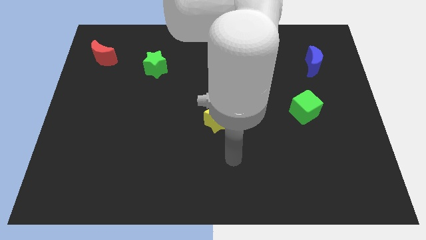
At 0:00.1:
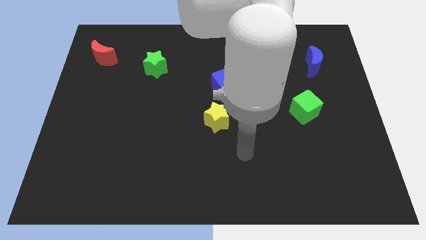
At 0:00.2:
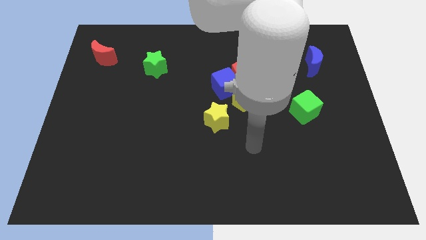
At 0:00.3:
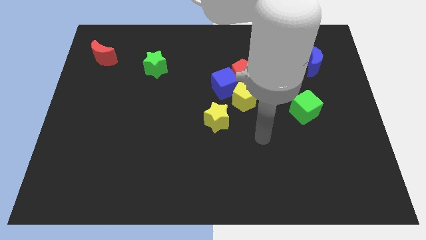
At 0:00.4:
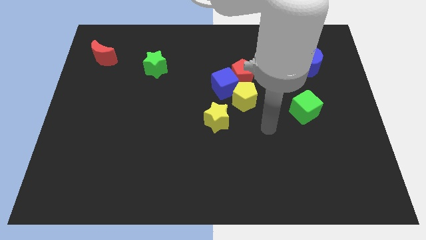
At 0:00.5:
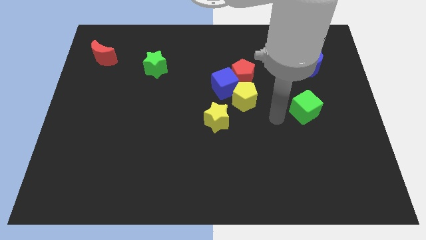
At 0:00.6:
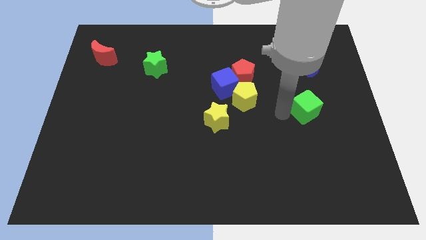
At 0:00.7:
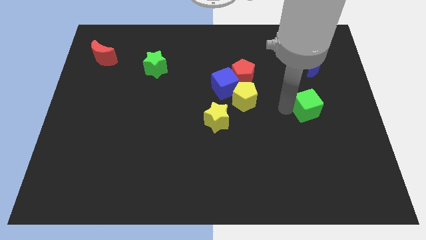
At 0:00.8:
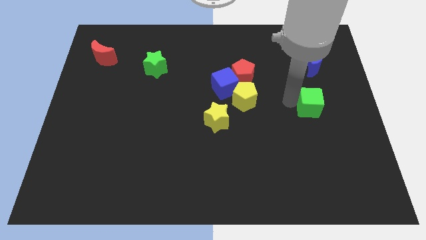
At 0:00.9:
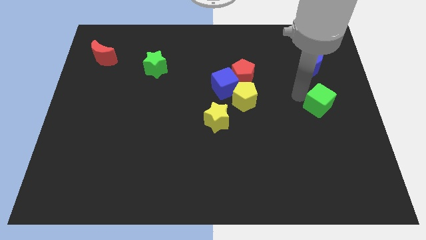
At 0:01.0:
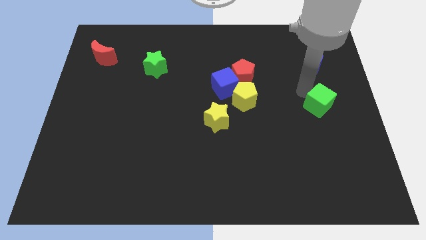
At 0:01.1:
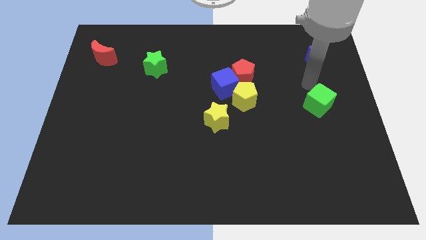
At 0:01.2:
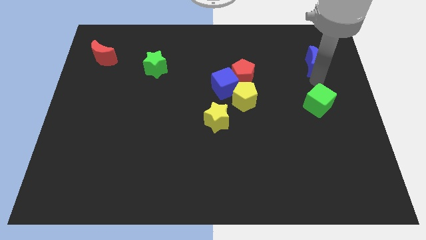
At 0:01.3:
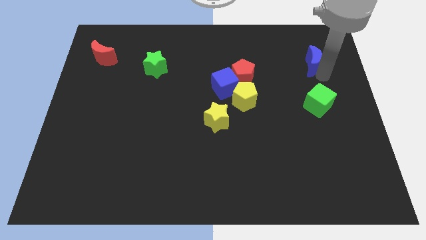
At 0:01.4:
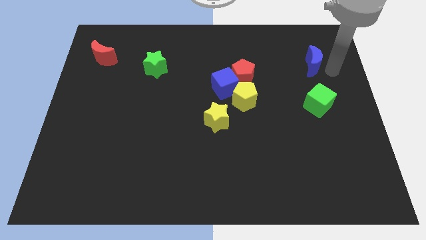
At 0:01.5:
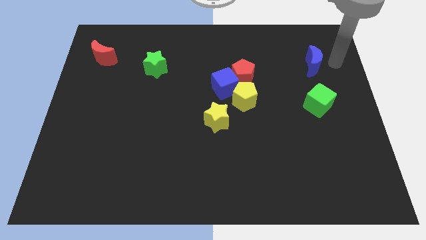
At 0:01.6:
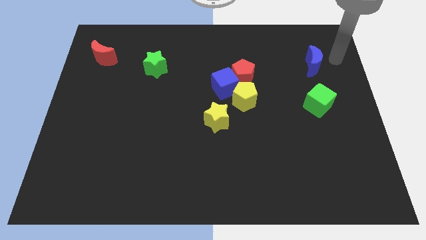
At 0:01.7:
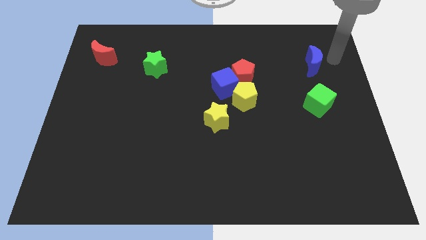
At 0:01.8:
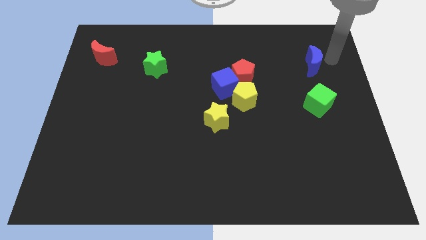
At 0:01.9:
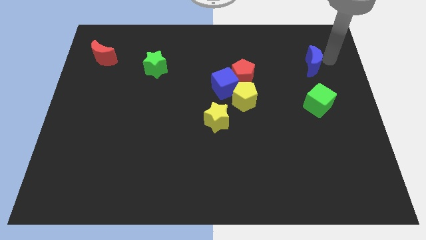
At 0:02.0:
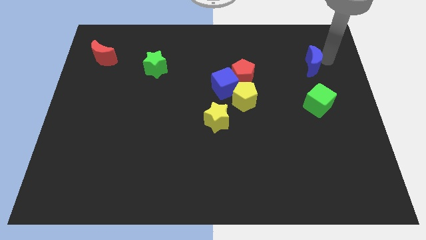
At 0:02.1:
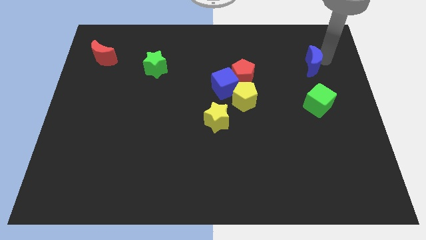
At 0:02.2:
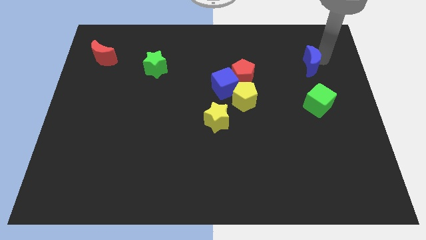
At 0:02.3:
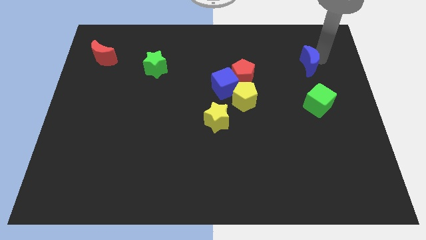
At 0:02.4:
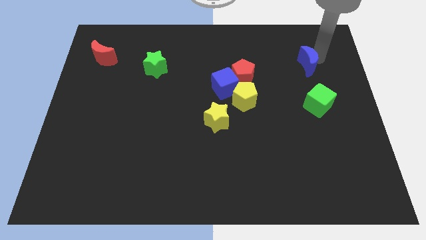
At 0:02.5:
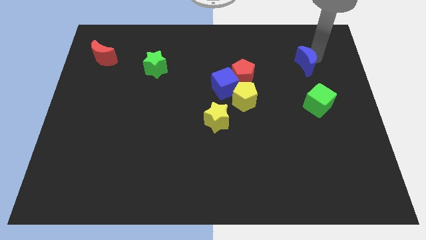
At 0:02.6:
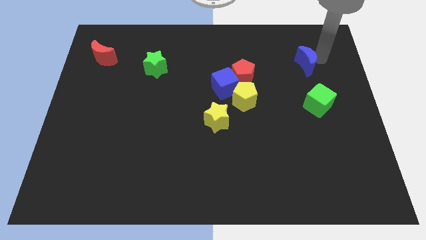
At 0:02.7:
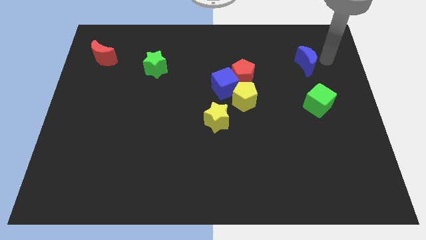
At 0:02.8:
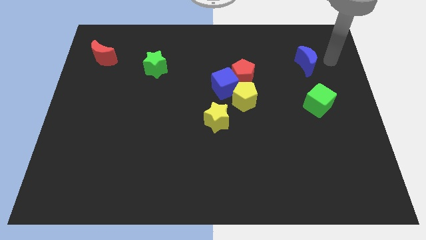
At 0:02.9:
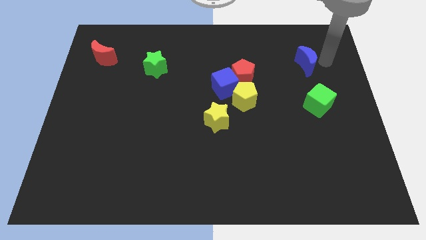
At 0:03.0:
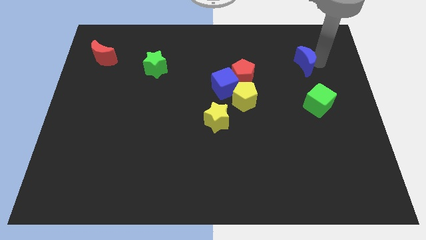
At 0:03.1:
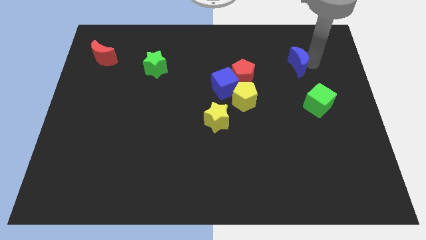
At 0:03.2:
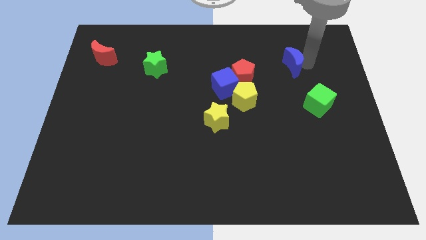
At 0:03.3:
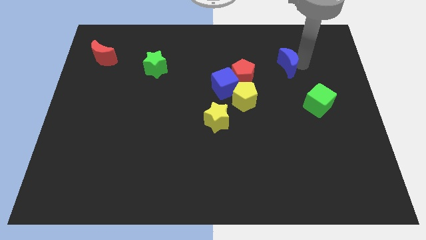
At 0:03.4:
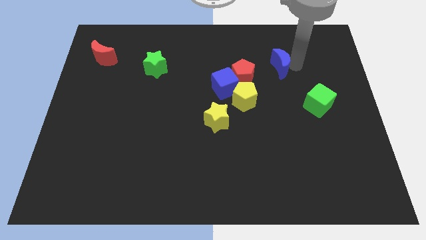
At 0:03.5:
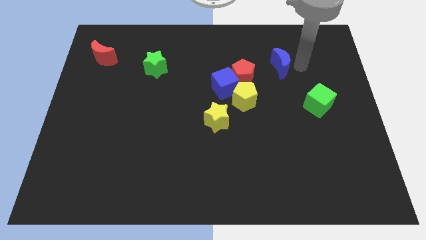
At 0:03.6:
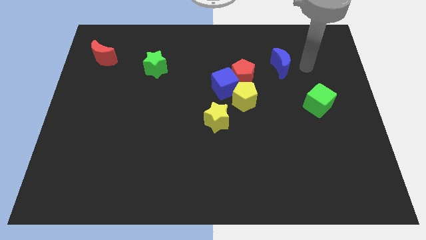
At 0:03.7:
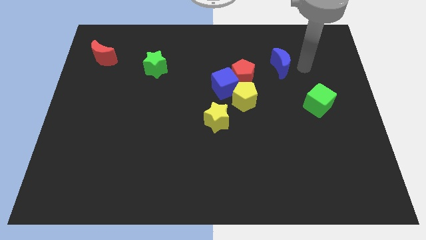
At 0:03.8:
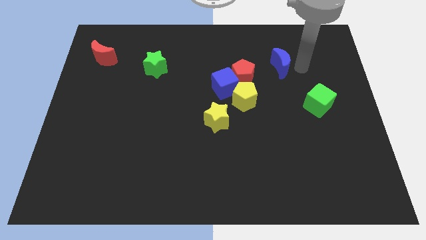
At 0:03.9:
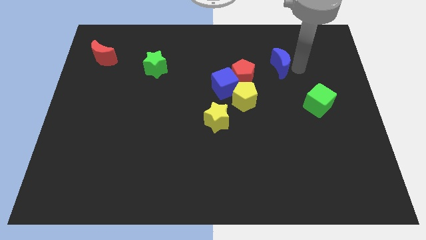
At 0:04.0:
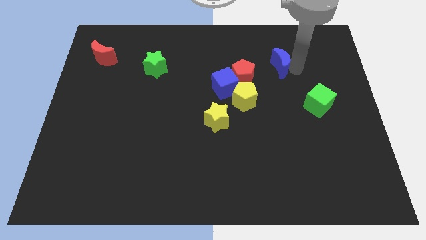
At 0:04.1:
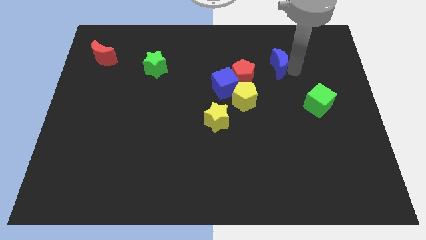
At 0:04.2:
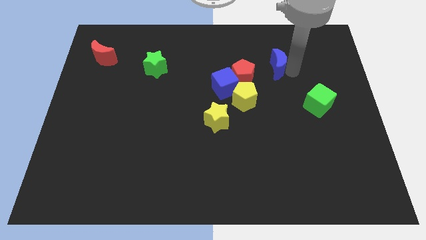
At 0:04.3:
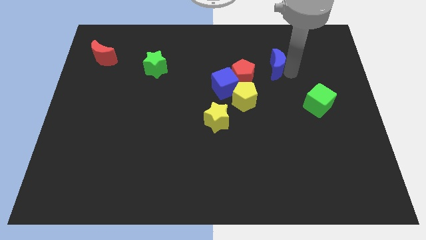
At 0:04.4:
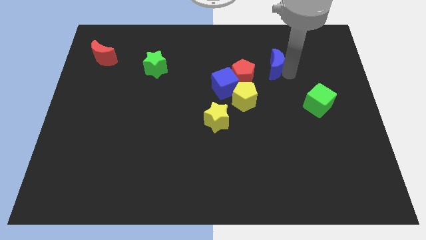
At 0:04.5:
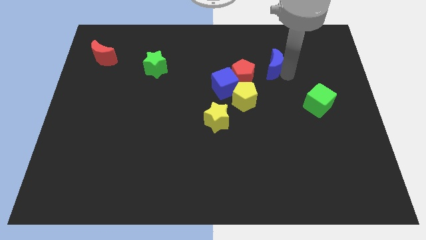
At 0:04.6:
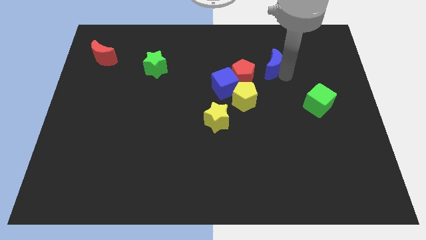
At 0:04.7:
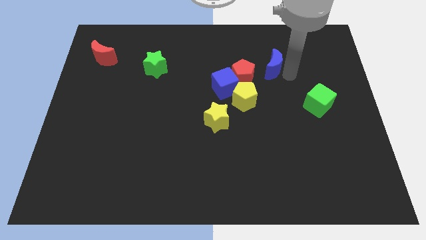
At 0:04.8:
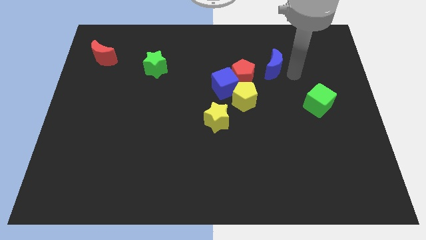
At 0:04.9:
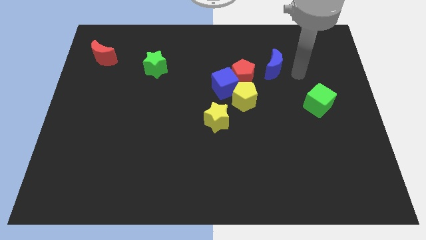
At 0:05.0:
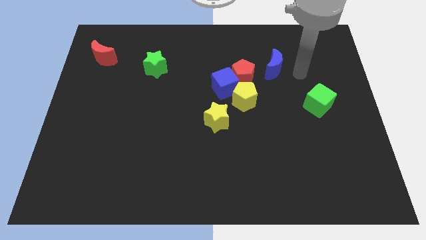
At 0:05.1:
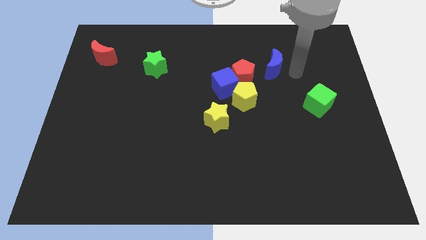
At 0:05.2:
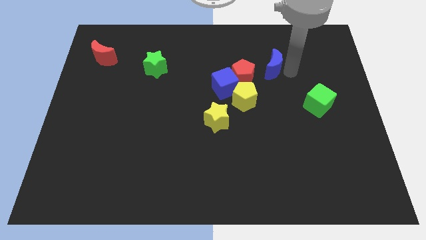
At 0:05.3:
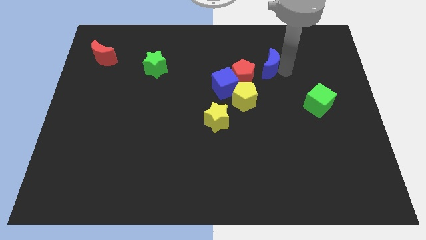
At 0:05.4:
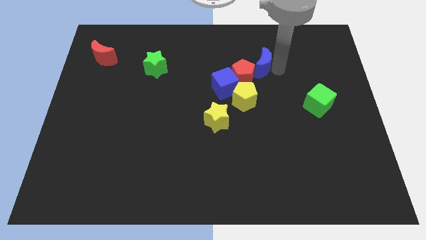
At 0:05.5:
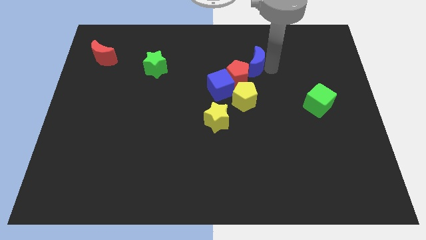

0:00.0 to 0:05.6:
push the blue moon to the top of the yellow pentagon

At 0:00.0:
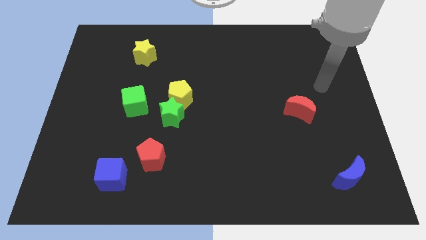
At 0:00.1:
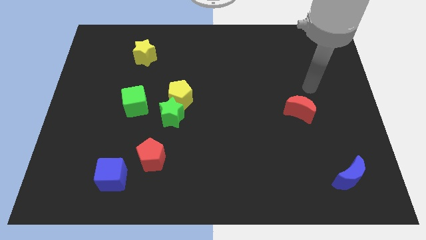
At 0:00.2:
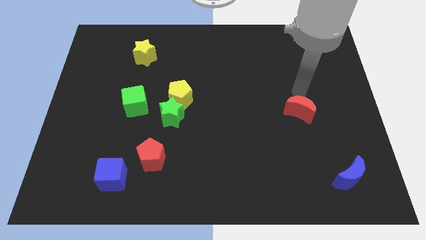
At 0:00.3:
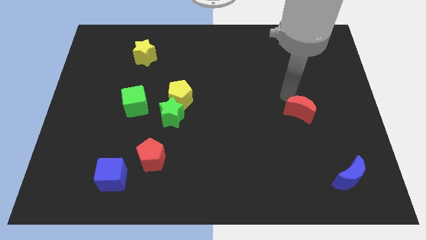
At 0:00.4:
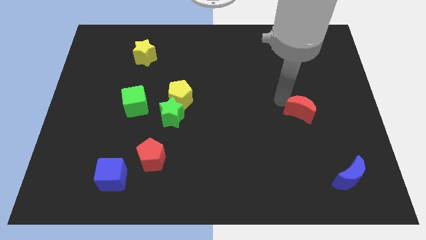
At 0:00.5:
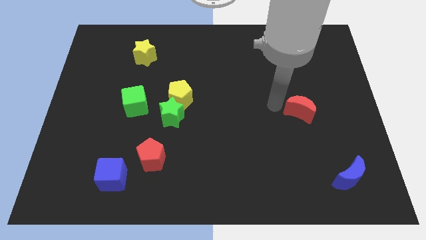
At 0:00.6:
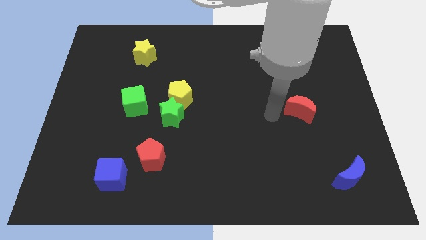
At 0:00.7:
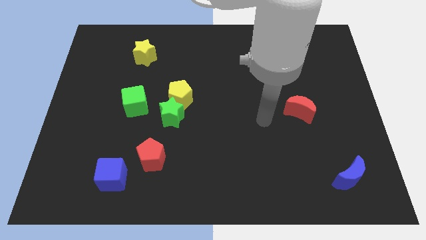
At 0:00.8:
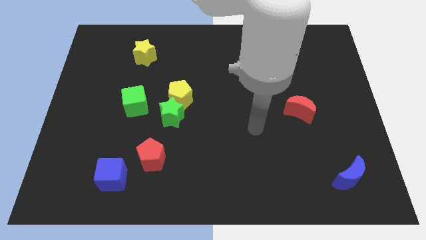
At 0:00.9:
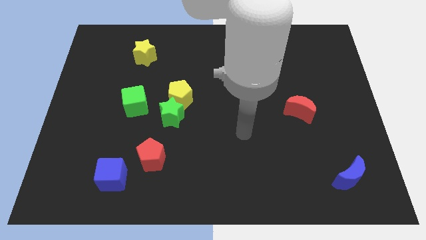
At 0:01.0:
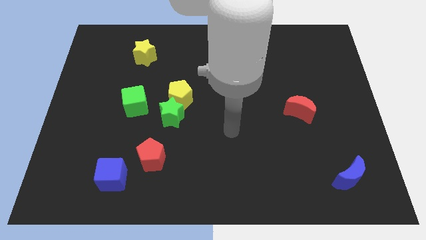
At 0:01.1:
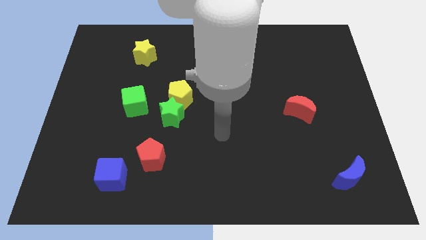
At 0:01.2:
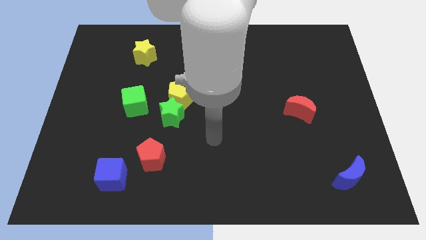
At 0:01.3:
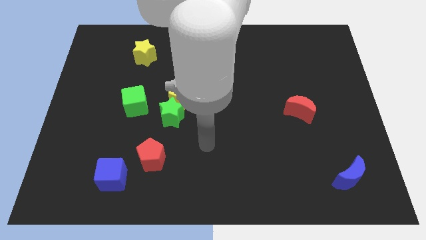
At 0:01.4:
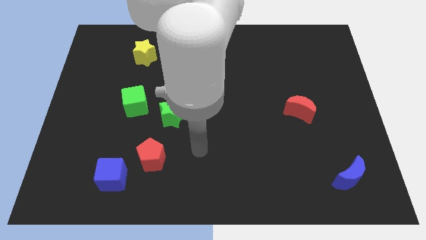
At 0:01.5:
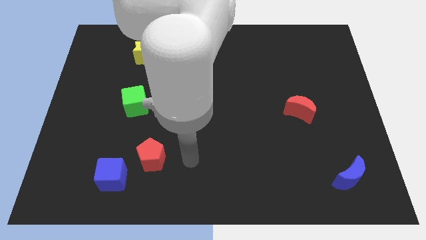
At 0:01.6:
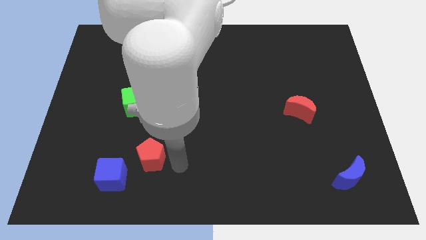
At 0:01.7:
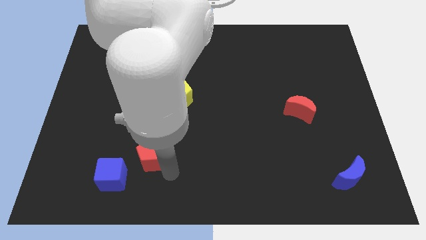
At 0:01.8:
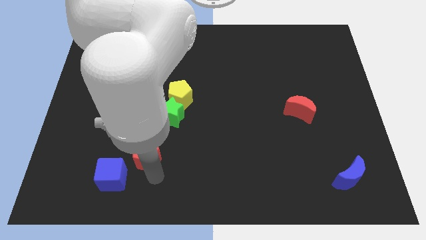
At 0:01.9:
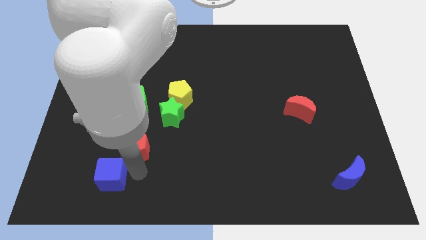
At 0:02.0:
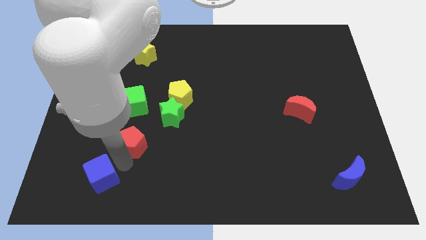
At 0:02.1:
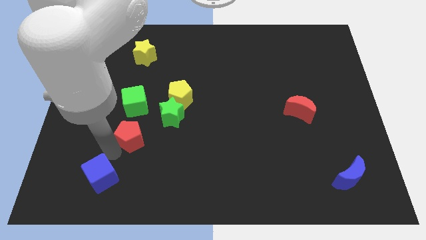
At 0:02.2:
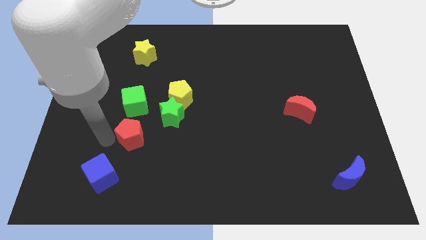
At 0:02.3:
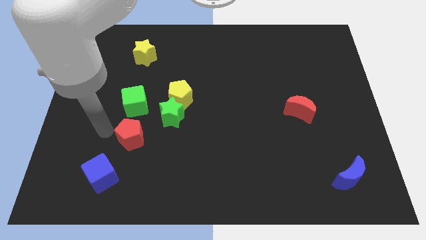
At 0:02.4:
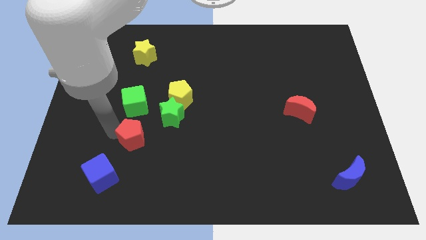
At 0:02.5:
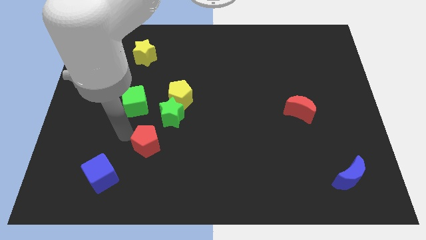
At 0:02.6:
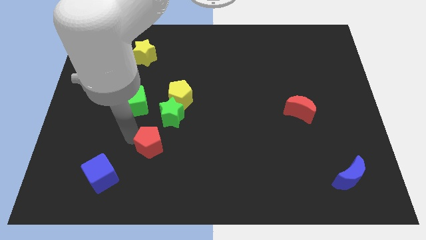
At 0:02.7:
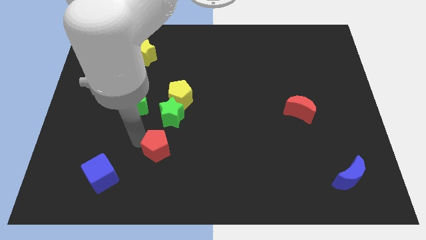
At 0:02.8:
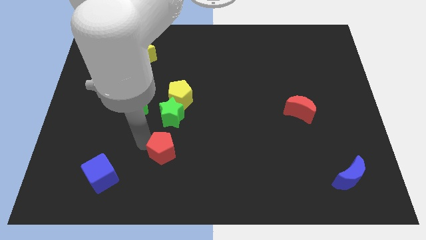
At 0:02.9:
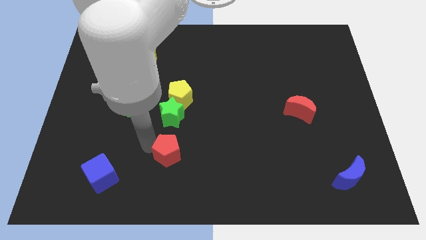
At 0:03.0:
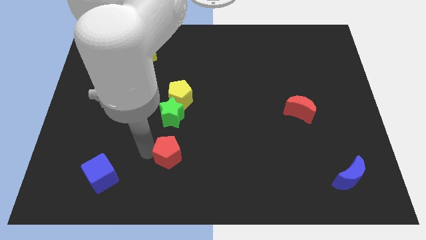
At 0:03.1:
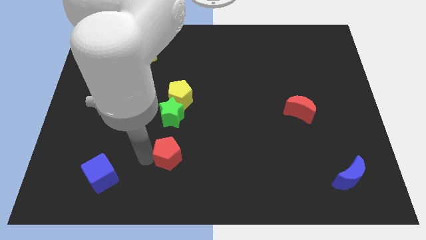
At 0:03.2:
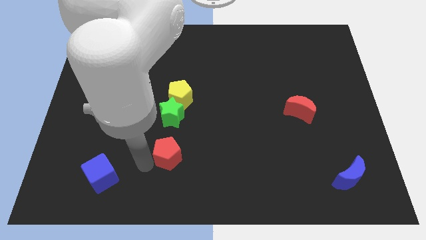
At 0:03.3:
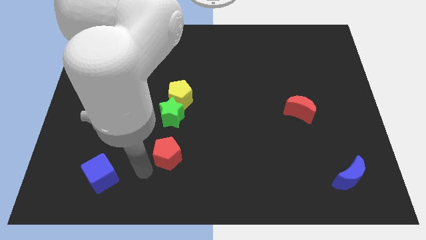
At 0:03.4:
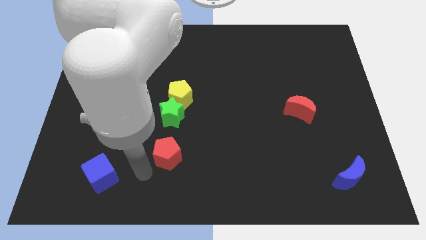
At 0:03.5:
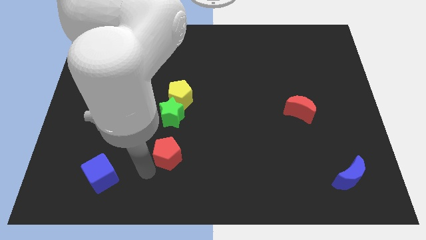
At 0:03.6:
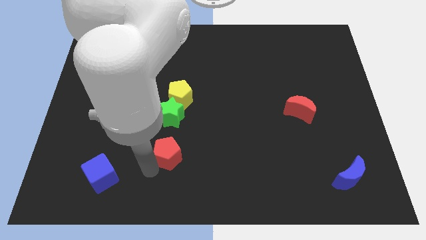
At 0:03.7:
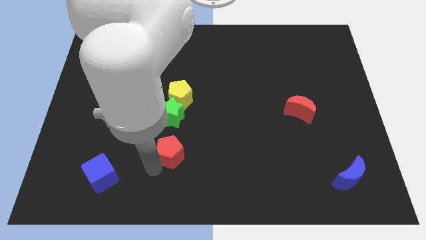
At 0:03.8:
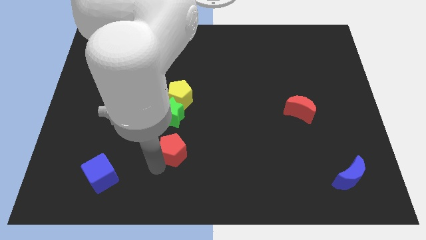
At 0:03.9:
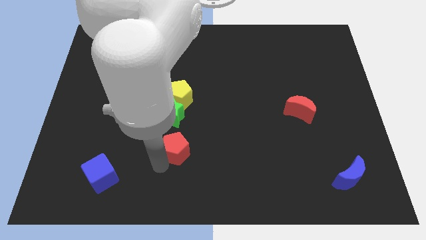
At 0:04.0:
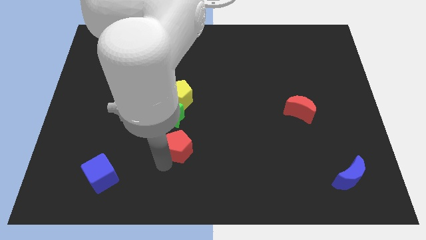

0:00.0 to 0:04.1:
slide the red pentagon to the bottom right side of the green star
